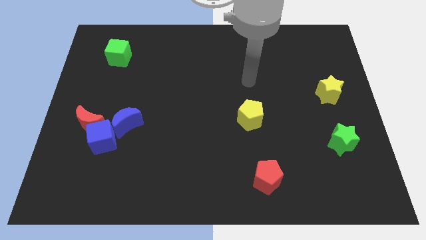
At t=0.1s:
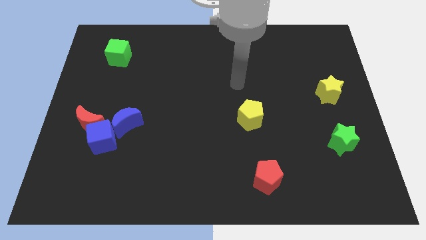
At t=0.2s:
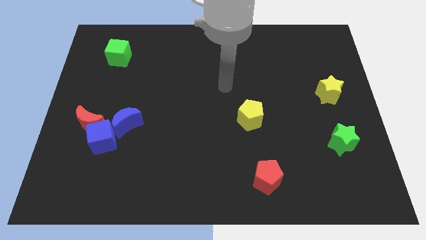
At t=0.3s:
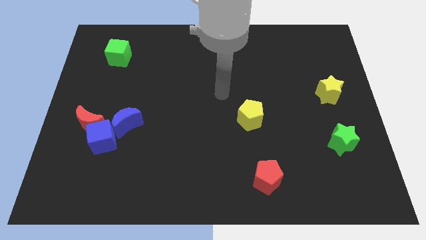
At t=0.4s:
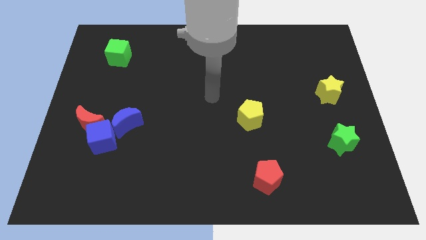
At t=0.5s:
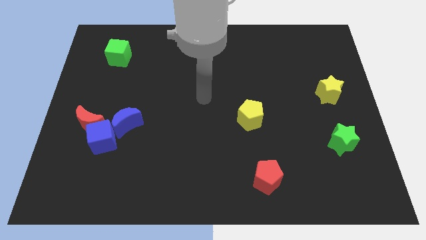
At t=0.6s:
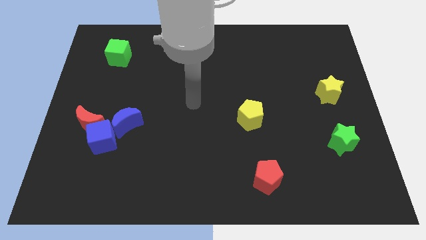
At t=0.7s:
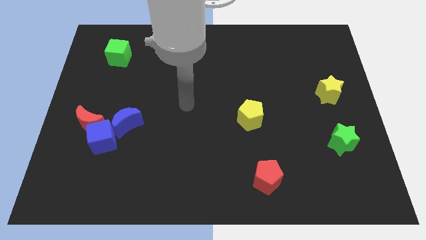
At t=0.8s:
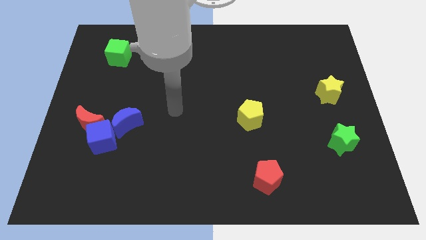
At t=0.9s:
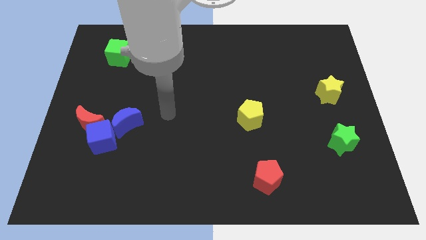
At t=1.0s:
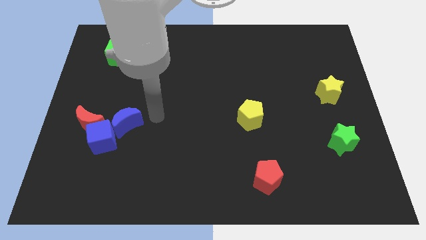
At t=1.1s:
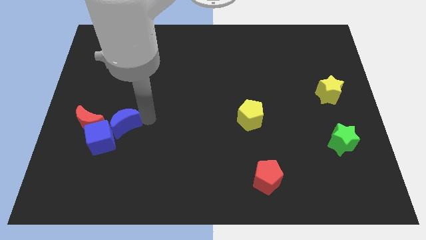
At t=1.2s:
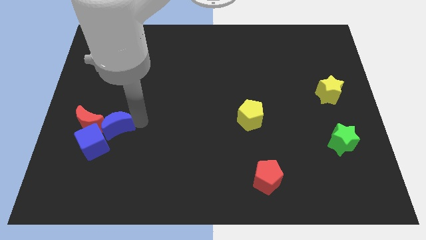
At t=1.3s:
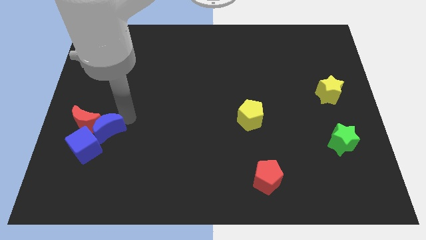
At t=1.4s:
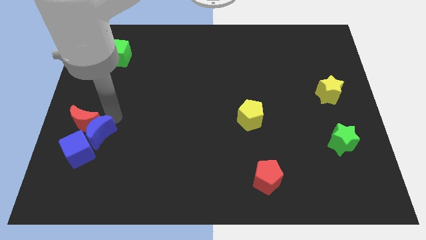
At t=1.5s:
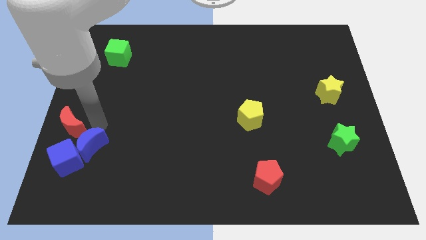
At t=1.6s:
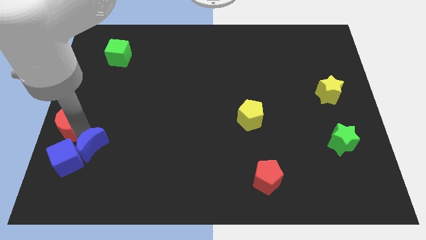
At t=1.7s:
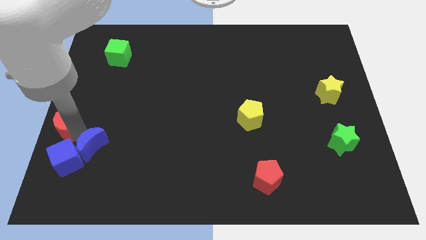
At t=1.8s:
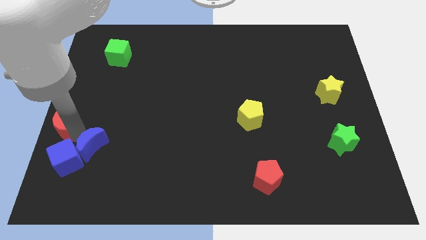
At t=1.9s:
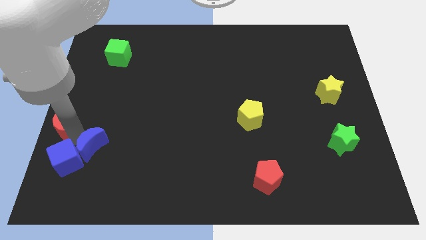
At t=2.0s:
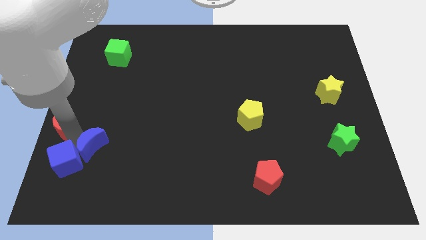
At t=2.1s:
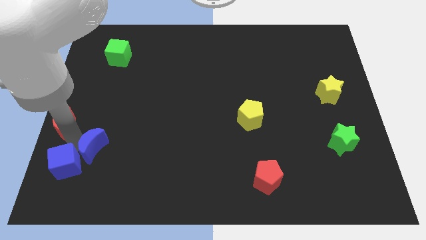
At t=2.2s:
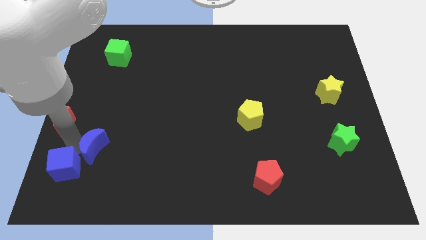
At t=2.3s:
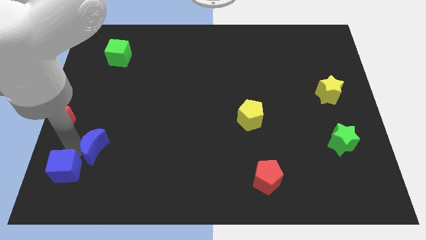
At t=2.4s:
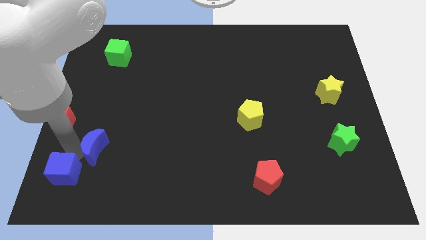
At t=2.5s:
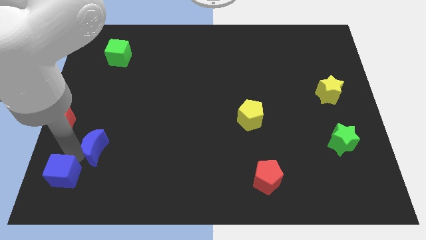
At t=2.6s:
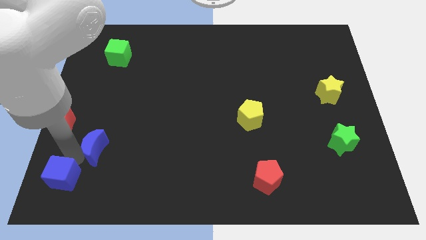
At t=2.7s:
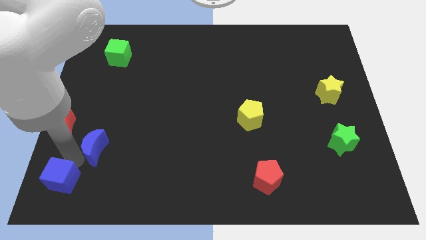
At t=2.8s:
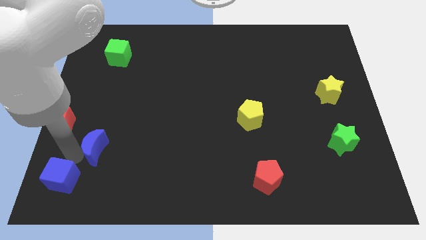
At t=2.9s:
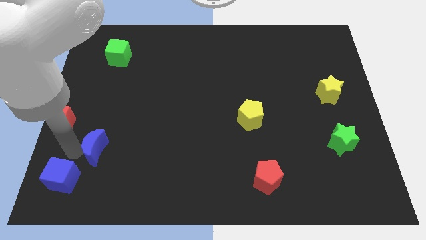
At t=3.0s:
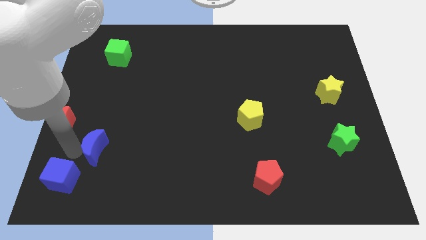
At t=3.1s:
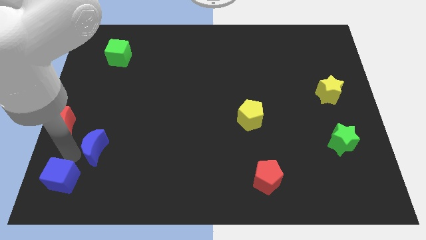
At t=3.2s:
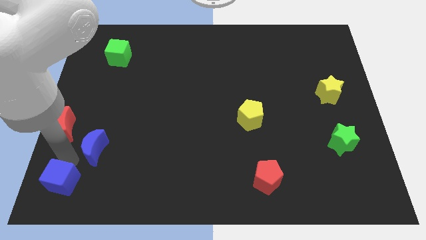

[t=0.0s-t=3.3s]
separate the blue cube from the red moon and blue moon

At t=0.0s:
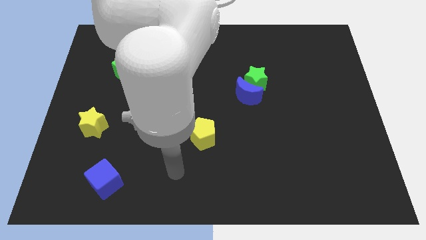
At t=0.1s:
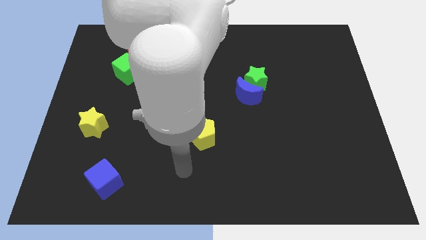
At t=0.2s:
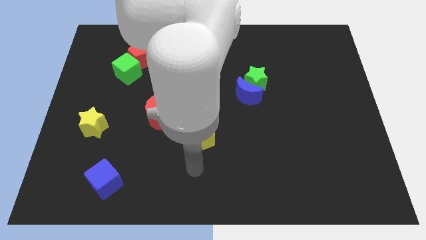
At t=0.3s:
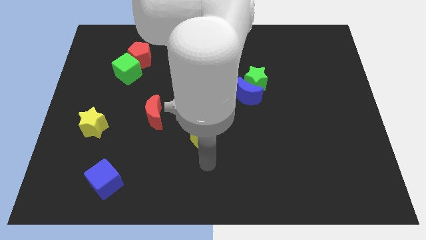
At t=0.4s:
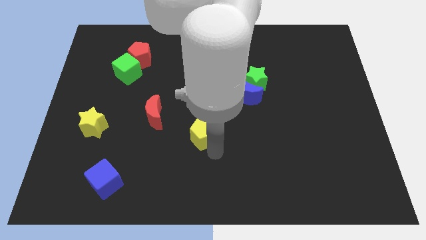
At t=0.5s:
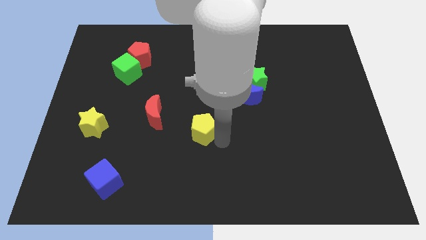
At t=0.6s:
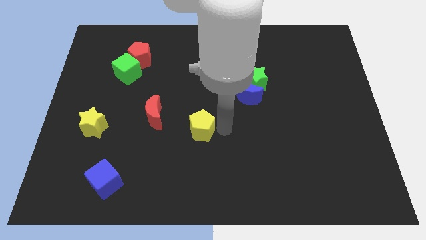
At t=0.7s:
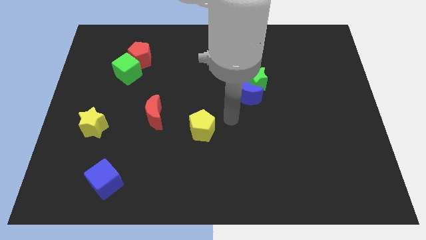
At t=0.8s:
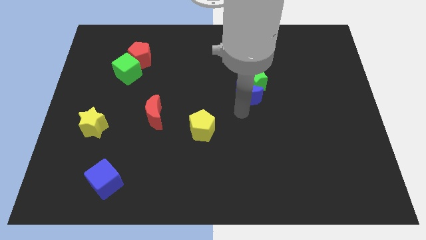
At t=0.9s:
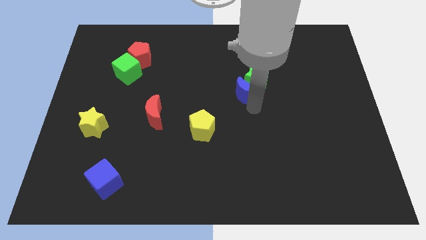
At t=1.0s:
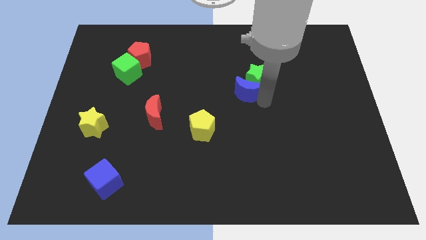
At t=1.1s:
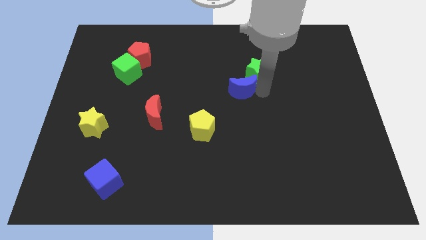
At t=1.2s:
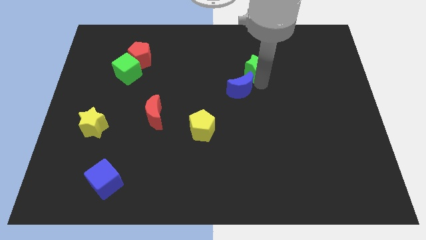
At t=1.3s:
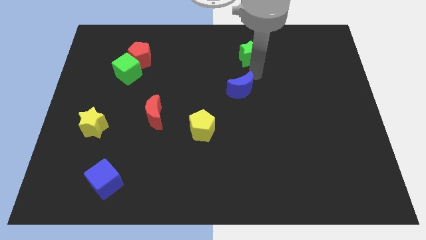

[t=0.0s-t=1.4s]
move the blue moon away from the green star

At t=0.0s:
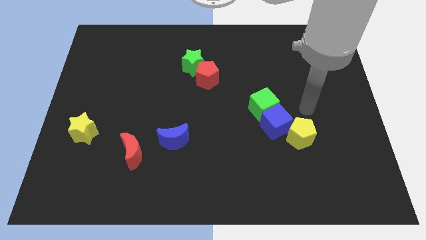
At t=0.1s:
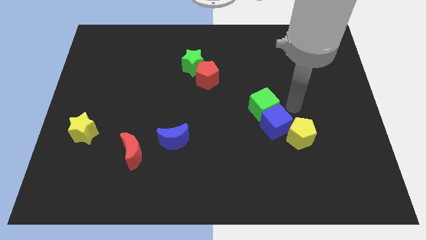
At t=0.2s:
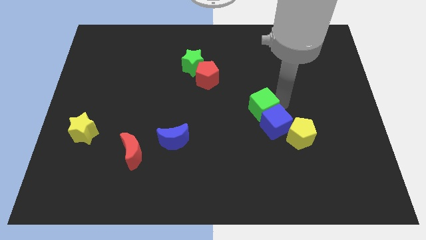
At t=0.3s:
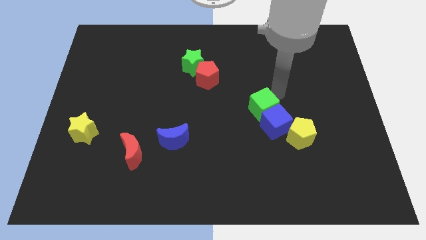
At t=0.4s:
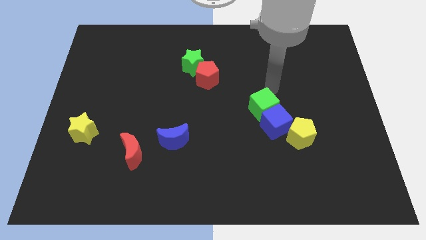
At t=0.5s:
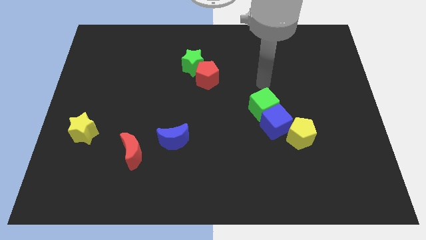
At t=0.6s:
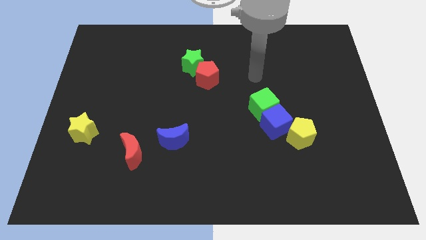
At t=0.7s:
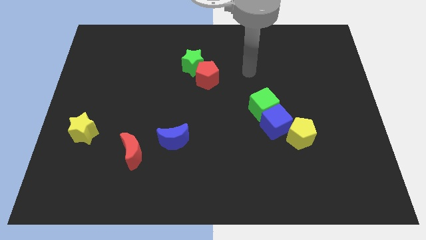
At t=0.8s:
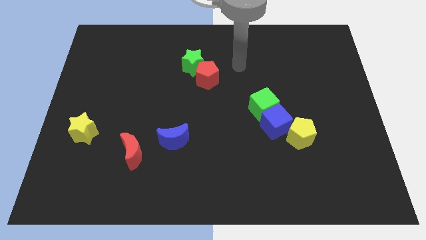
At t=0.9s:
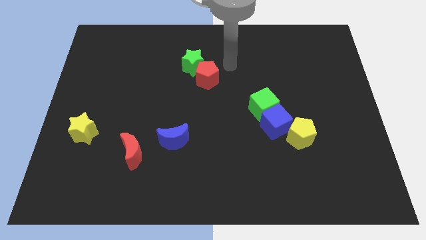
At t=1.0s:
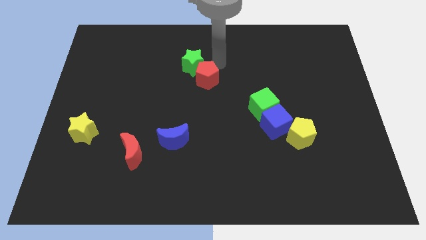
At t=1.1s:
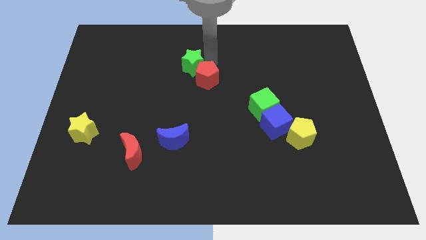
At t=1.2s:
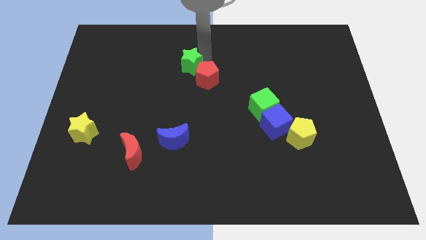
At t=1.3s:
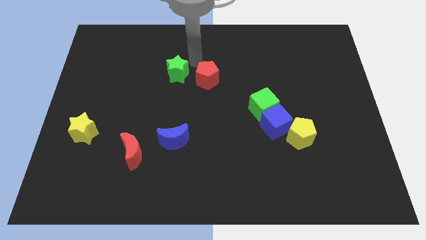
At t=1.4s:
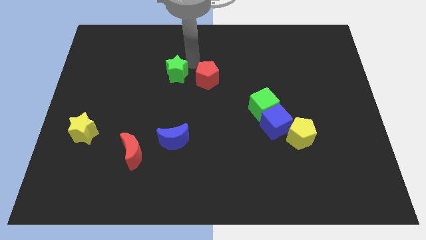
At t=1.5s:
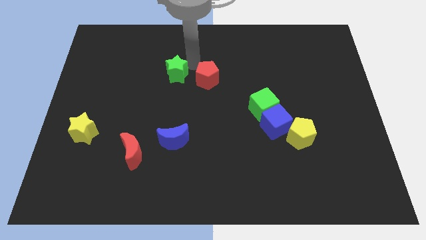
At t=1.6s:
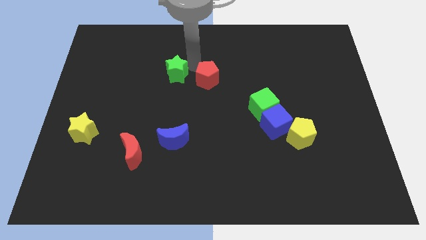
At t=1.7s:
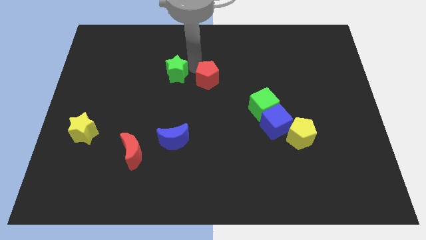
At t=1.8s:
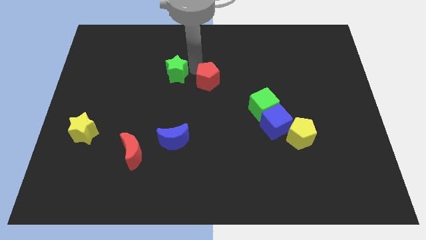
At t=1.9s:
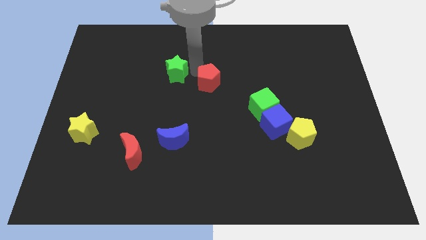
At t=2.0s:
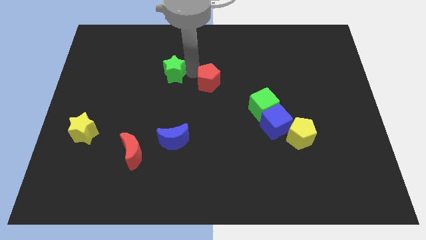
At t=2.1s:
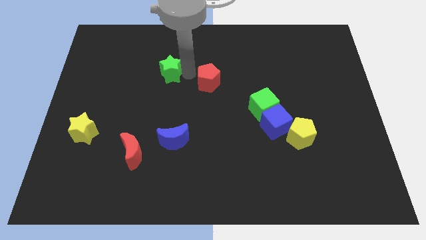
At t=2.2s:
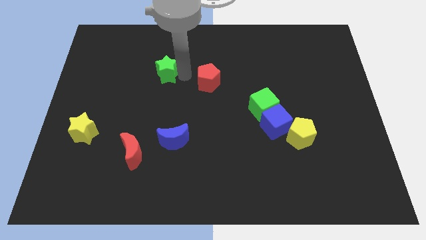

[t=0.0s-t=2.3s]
move the red pentagon away from the green star

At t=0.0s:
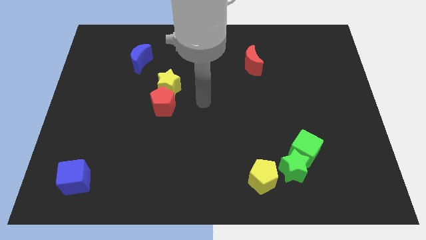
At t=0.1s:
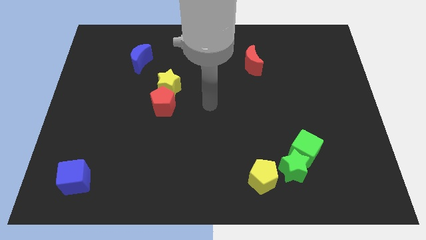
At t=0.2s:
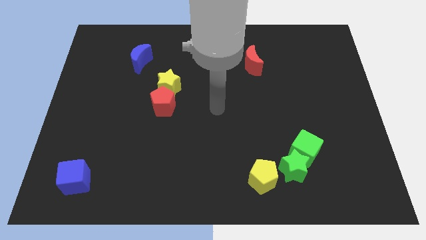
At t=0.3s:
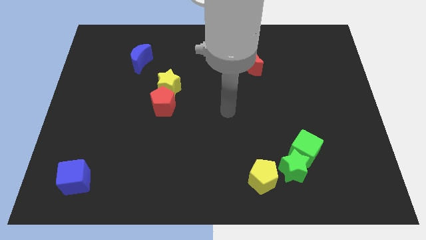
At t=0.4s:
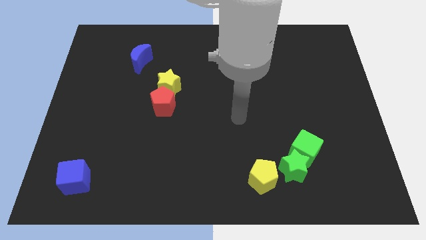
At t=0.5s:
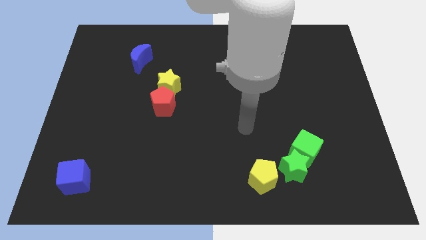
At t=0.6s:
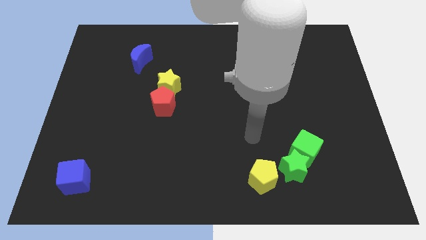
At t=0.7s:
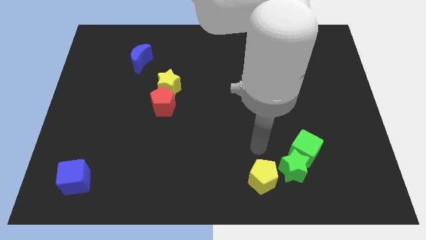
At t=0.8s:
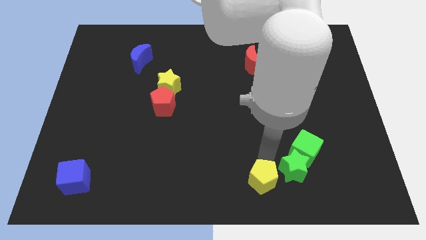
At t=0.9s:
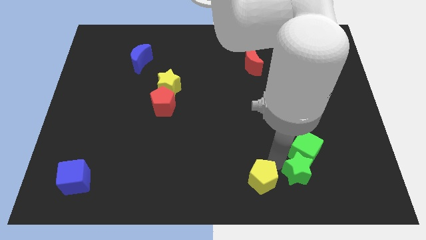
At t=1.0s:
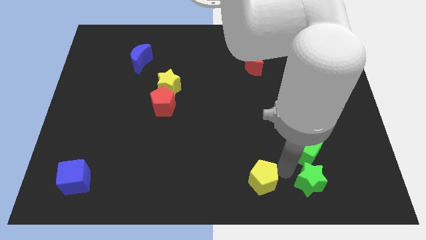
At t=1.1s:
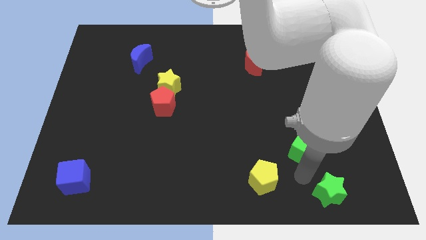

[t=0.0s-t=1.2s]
move the green cube away from the green star

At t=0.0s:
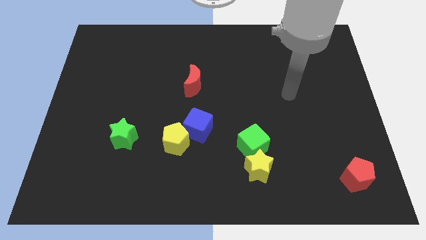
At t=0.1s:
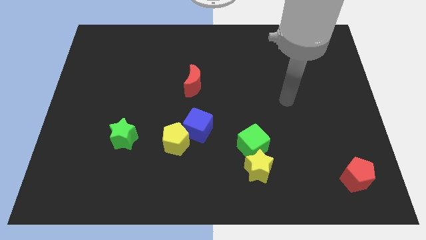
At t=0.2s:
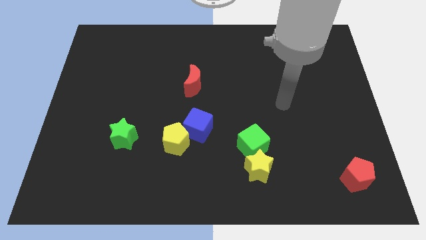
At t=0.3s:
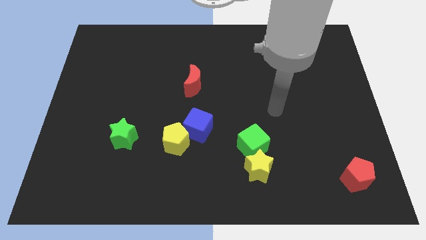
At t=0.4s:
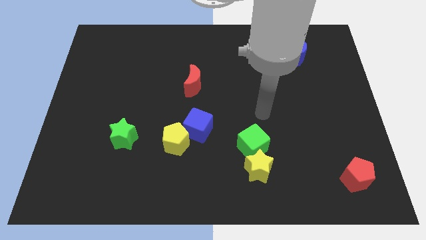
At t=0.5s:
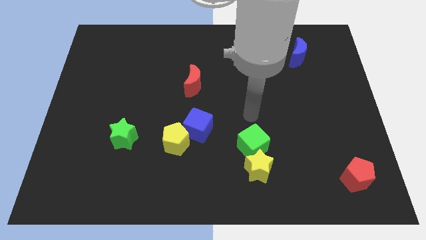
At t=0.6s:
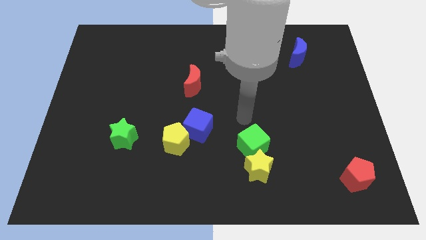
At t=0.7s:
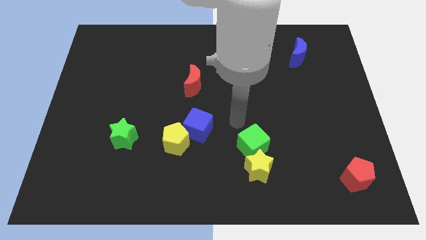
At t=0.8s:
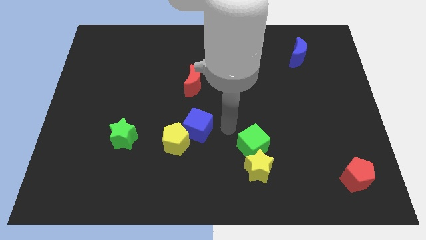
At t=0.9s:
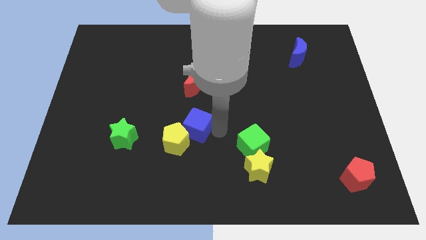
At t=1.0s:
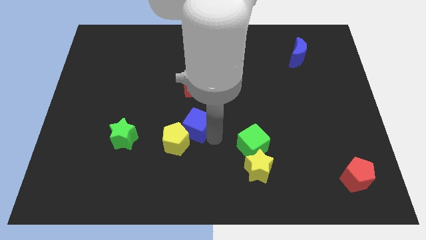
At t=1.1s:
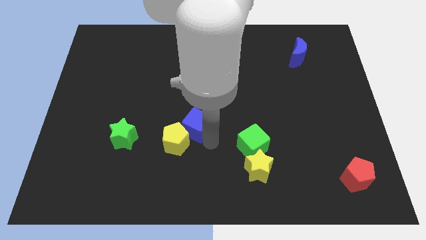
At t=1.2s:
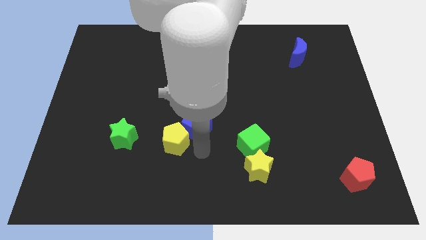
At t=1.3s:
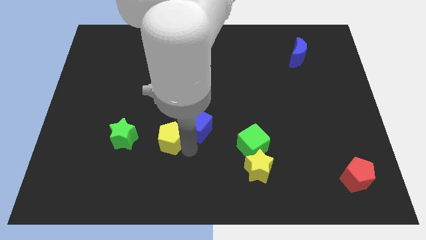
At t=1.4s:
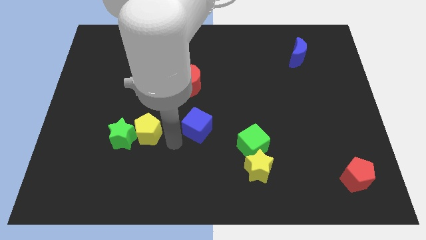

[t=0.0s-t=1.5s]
separate the blue cube from the yellow pentagon
